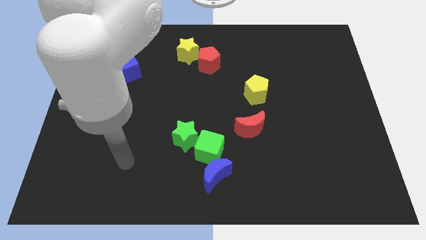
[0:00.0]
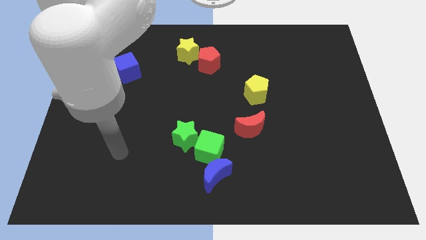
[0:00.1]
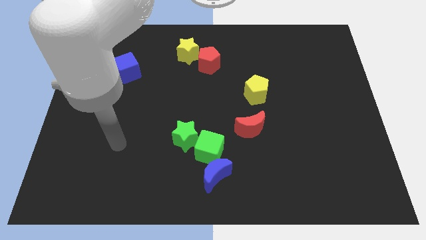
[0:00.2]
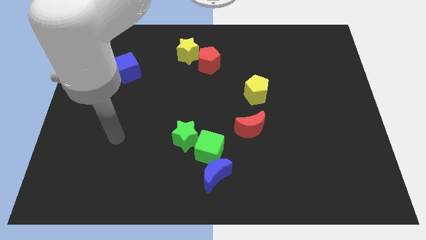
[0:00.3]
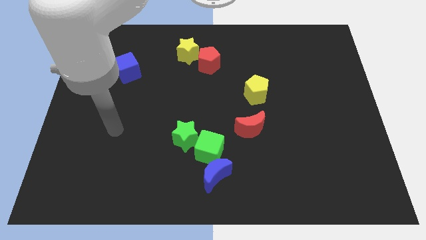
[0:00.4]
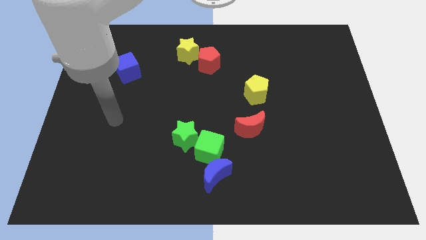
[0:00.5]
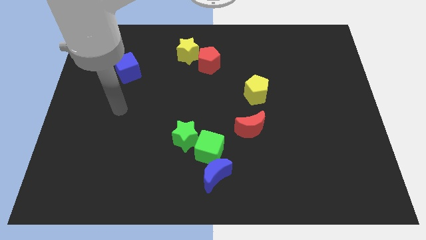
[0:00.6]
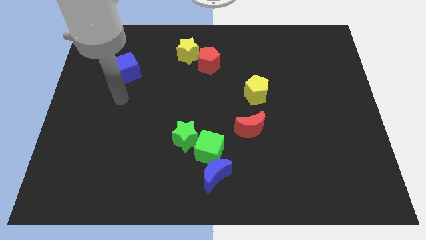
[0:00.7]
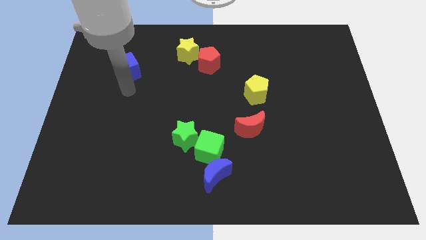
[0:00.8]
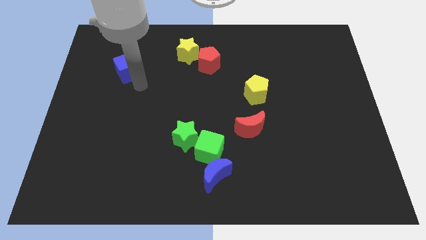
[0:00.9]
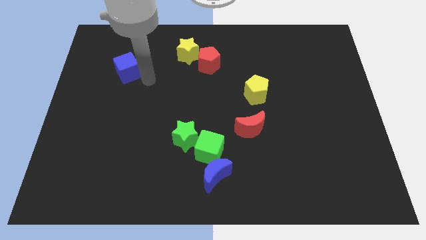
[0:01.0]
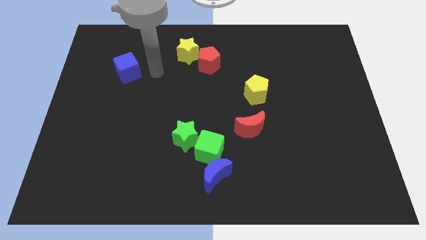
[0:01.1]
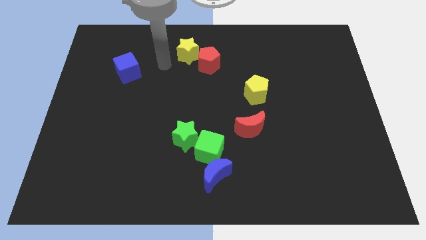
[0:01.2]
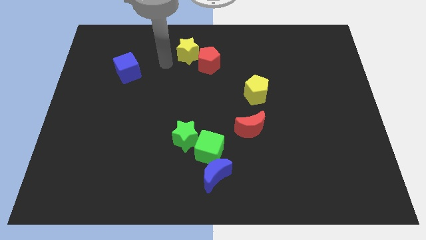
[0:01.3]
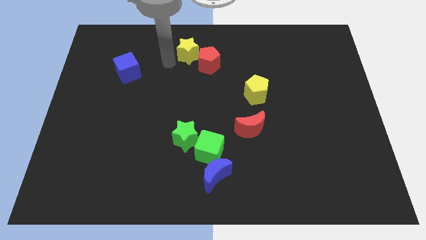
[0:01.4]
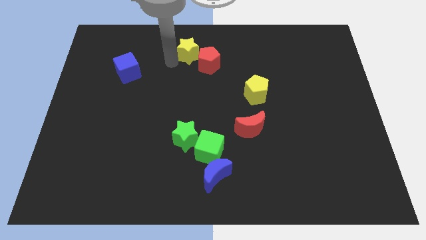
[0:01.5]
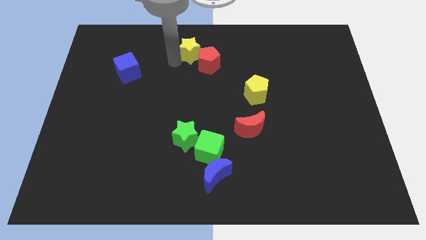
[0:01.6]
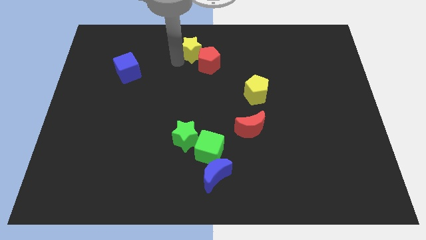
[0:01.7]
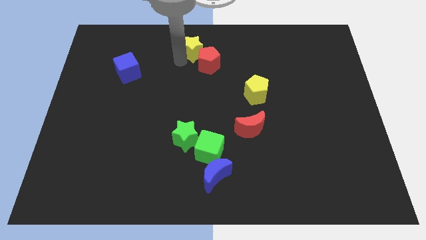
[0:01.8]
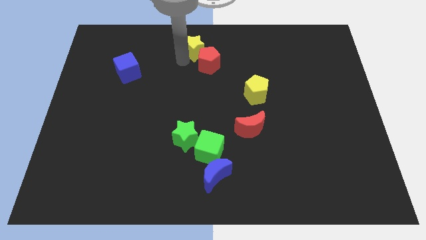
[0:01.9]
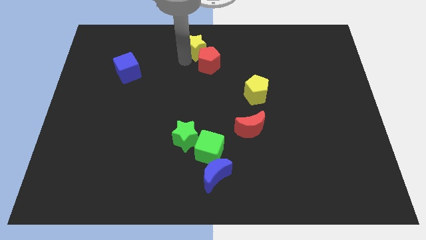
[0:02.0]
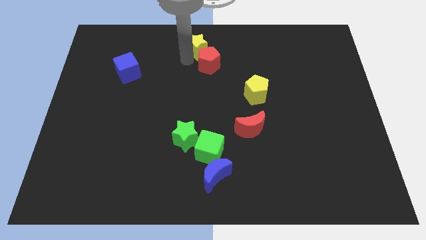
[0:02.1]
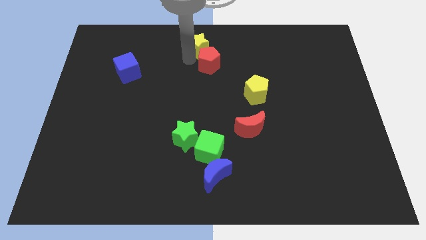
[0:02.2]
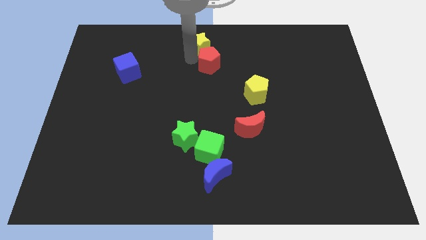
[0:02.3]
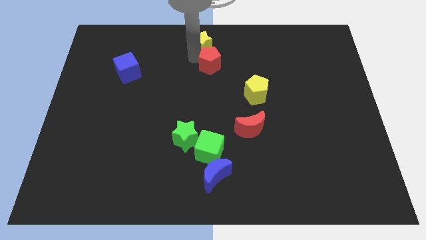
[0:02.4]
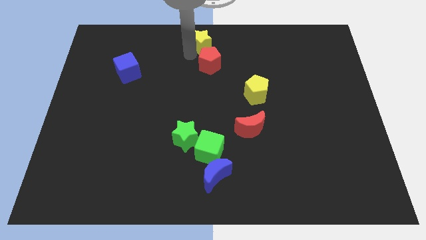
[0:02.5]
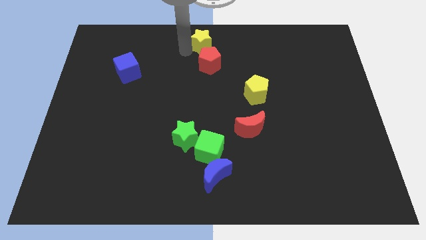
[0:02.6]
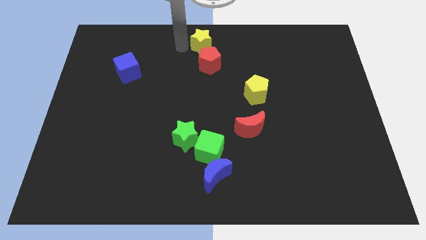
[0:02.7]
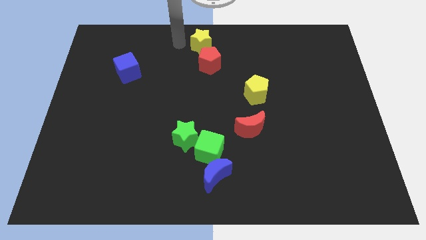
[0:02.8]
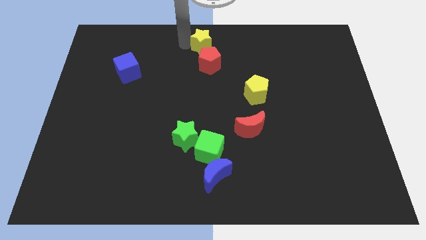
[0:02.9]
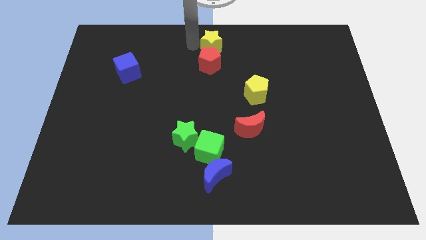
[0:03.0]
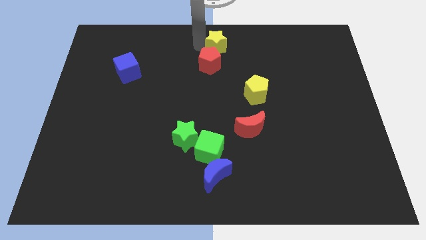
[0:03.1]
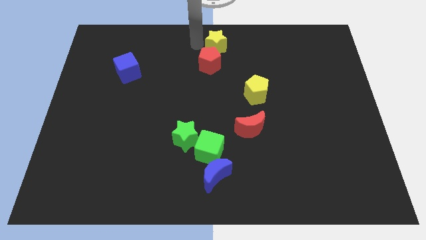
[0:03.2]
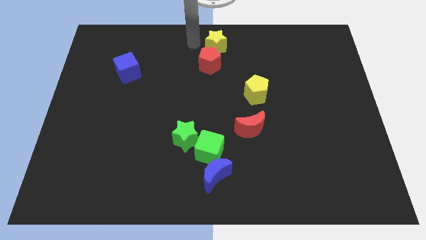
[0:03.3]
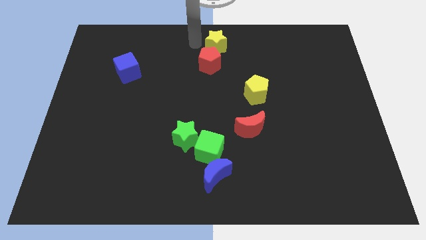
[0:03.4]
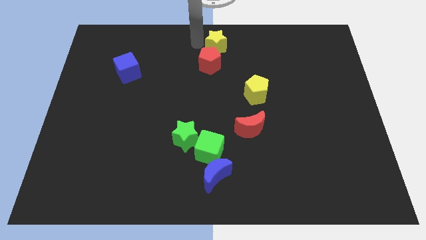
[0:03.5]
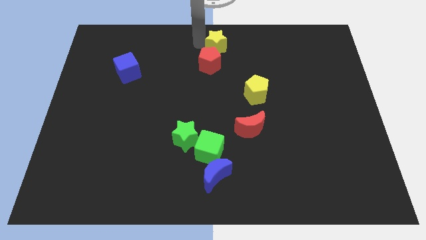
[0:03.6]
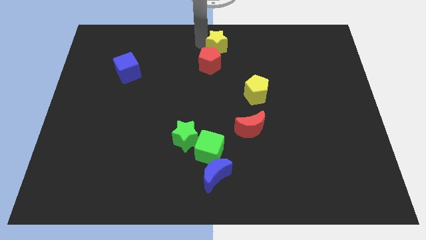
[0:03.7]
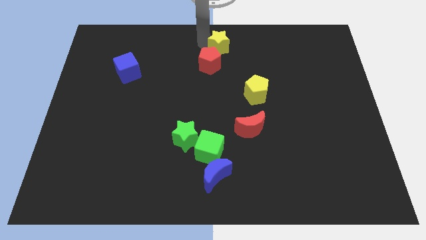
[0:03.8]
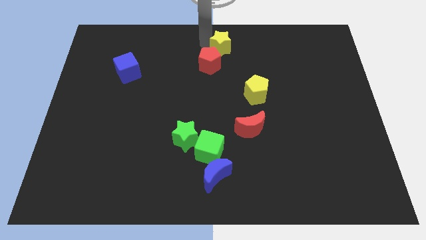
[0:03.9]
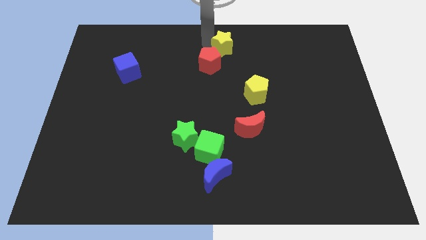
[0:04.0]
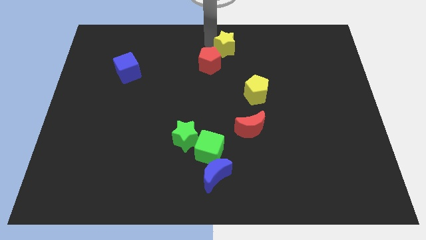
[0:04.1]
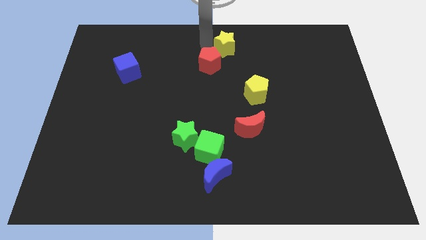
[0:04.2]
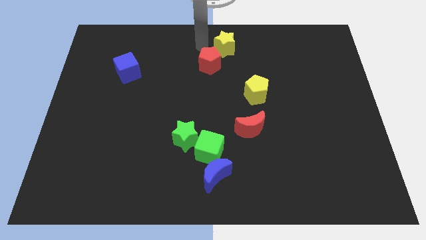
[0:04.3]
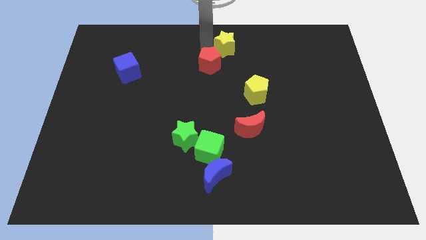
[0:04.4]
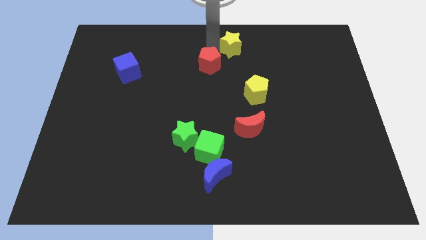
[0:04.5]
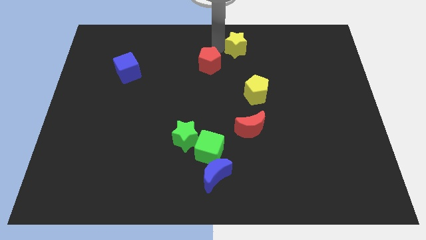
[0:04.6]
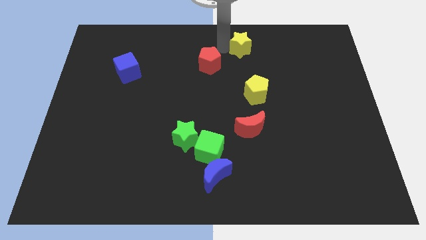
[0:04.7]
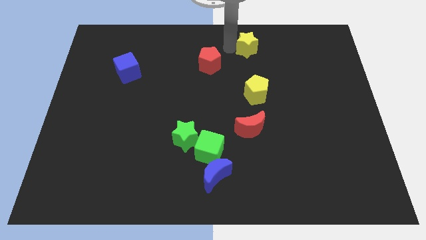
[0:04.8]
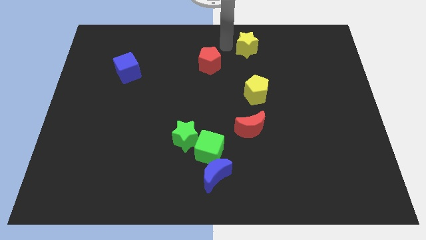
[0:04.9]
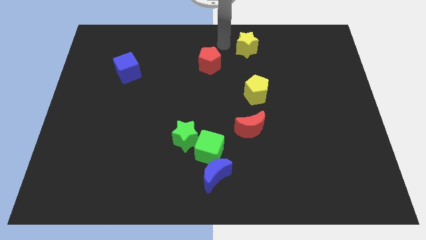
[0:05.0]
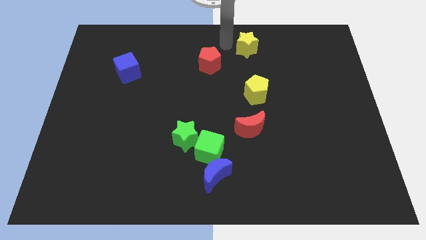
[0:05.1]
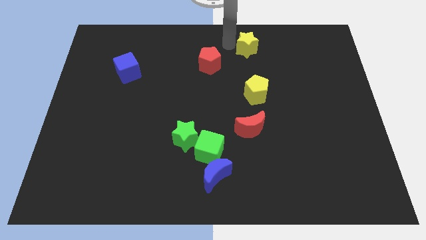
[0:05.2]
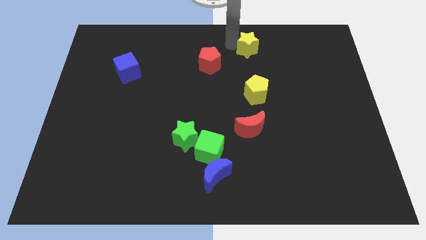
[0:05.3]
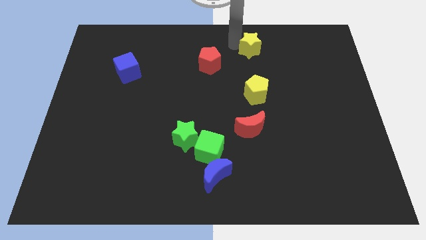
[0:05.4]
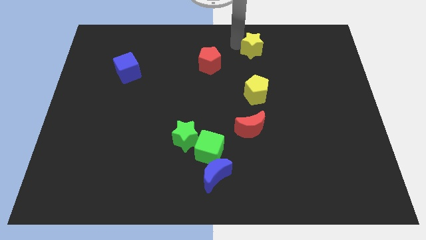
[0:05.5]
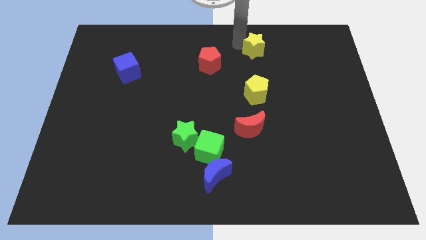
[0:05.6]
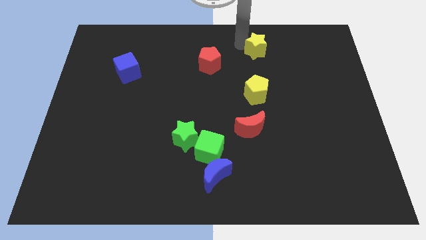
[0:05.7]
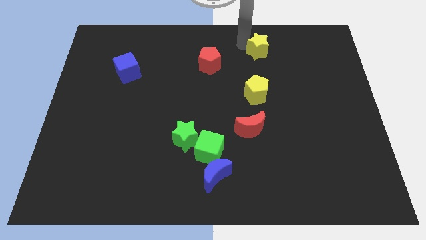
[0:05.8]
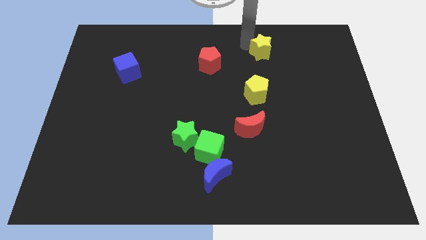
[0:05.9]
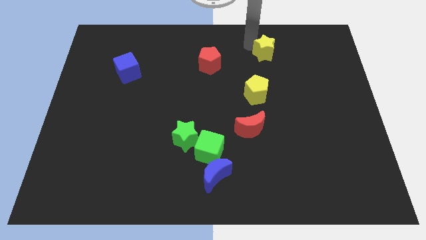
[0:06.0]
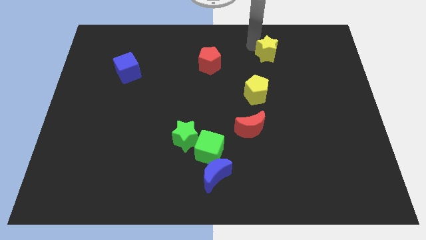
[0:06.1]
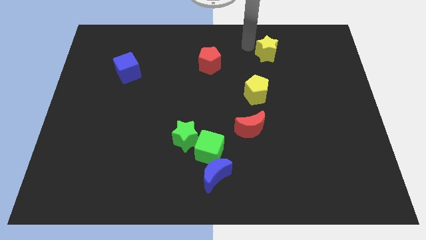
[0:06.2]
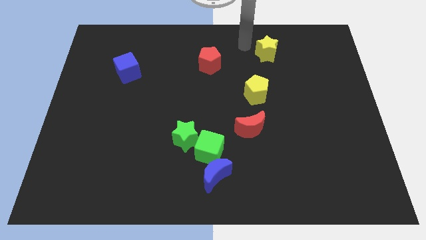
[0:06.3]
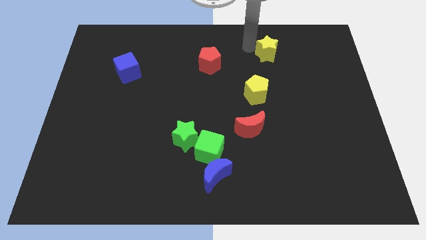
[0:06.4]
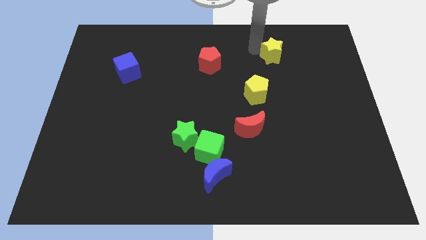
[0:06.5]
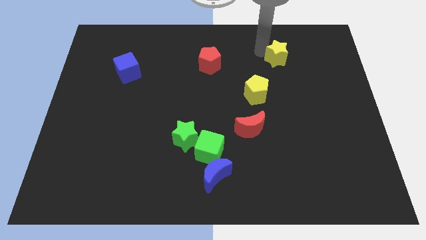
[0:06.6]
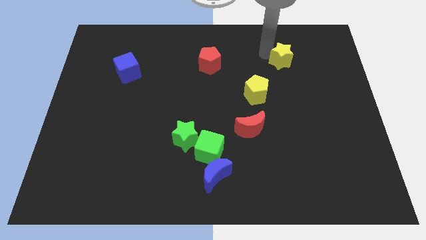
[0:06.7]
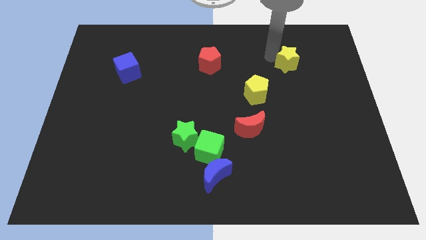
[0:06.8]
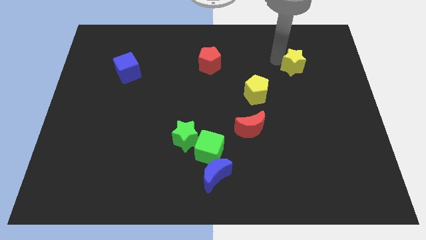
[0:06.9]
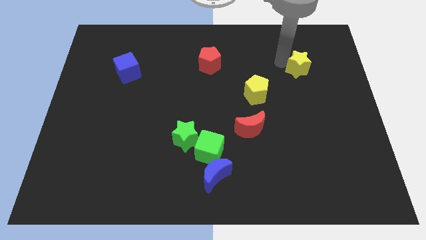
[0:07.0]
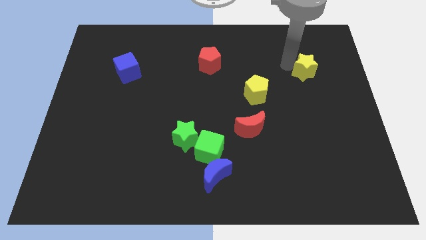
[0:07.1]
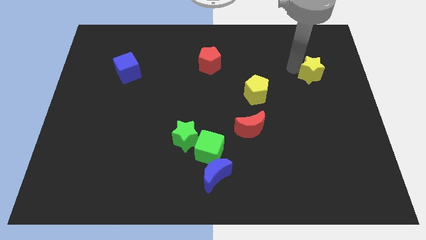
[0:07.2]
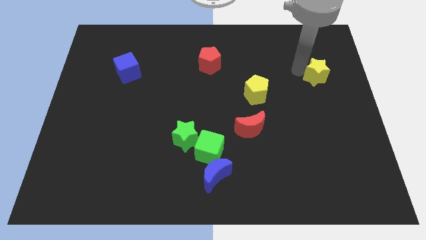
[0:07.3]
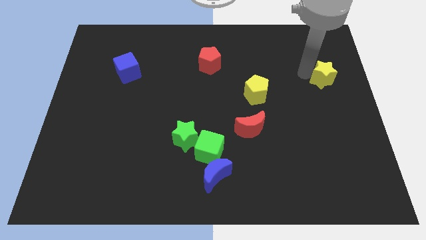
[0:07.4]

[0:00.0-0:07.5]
move the yellow star to the center right

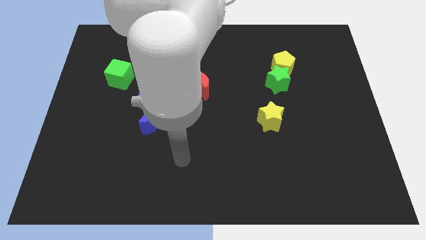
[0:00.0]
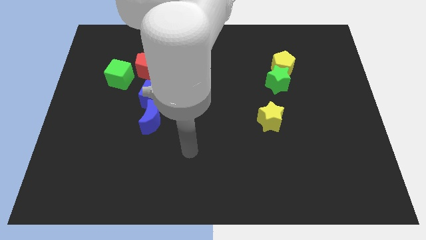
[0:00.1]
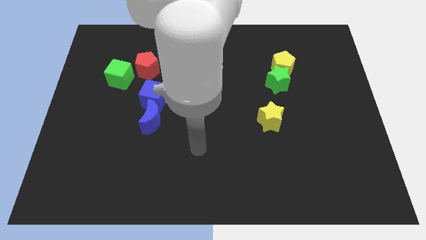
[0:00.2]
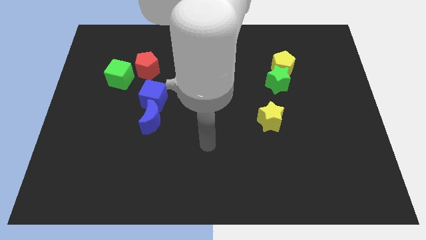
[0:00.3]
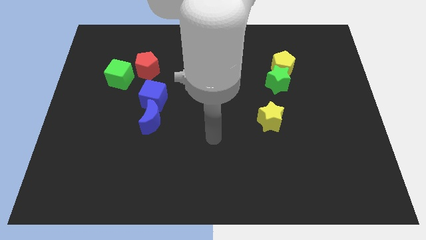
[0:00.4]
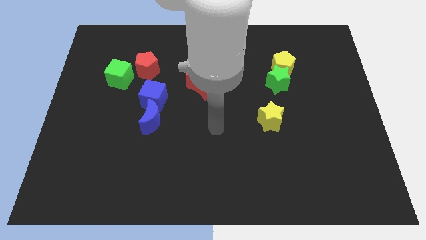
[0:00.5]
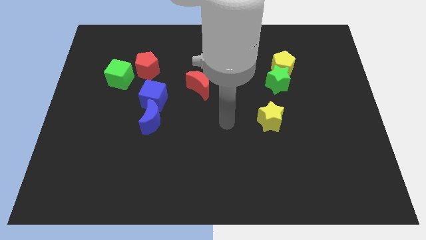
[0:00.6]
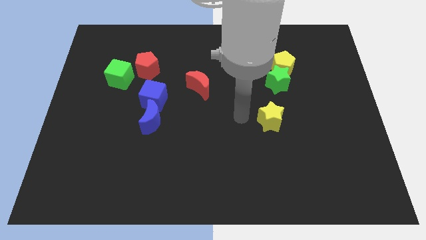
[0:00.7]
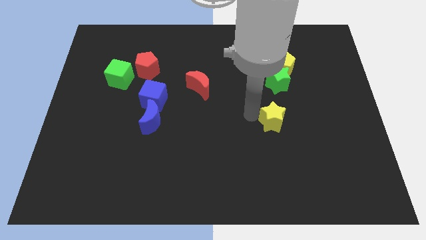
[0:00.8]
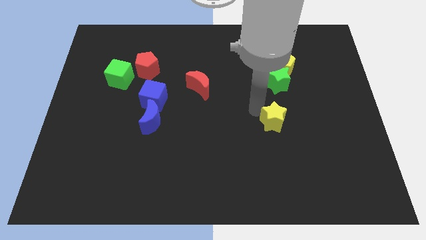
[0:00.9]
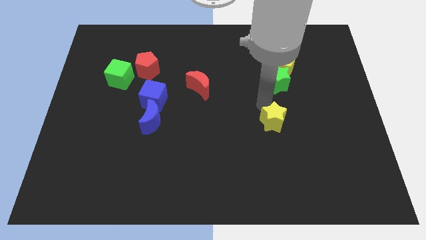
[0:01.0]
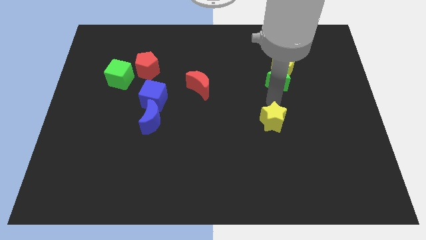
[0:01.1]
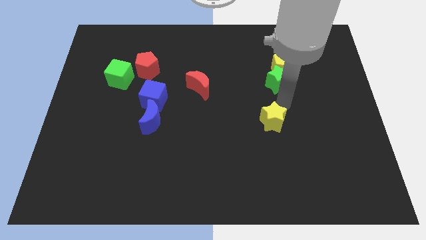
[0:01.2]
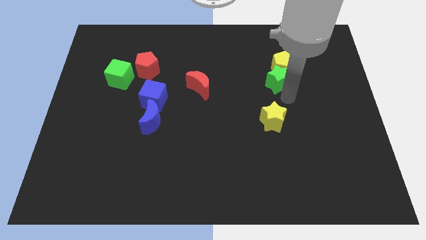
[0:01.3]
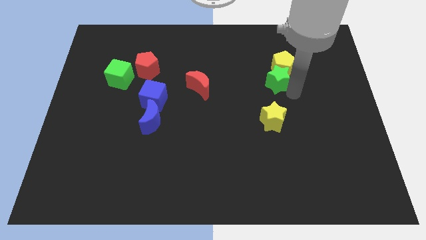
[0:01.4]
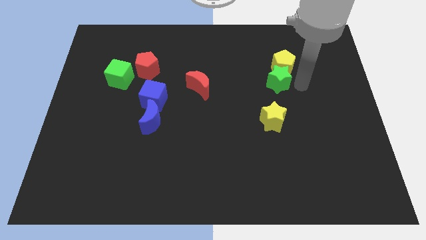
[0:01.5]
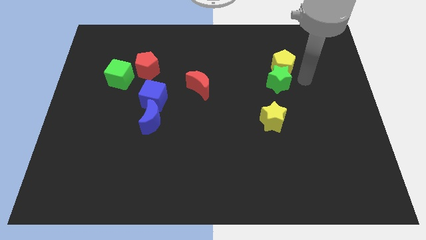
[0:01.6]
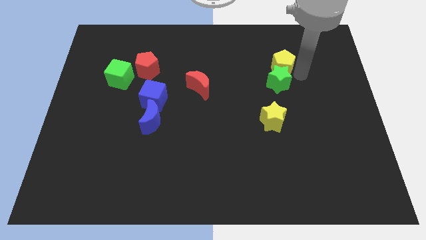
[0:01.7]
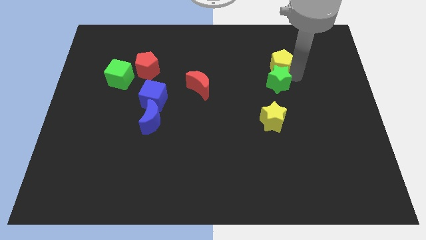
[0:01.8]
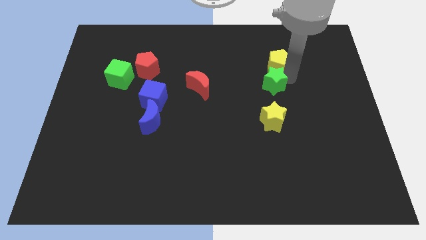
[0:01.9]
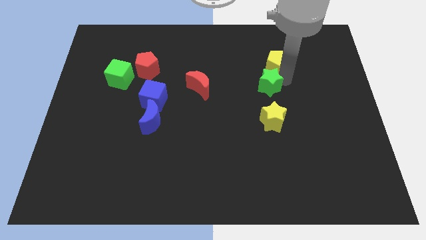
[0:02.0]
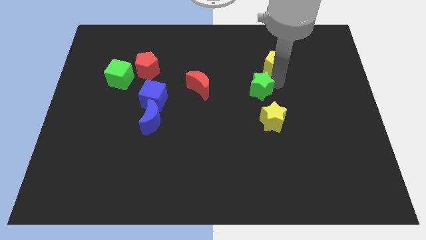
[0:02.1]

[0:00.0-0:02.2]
slide the green star to the middle
